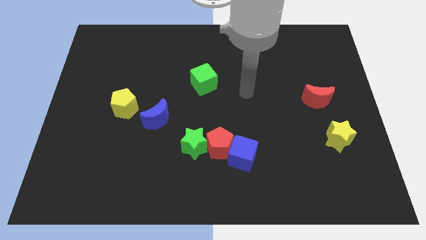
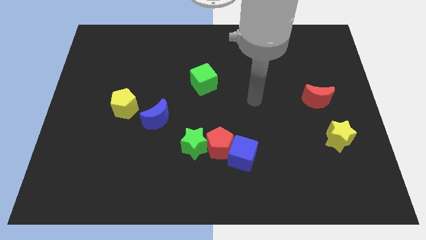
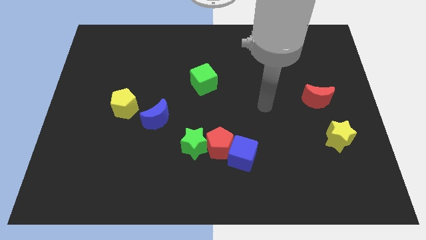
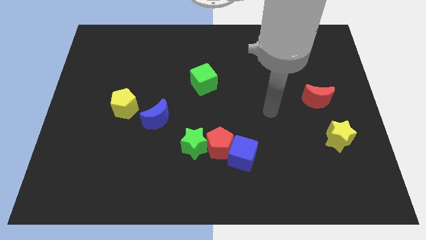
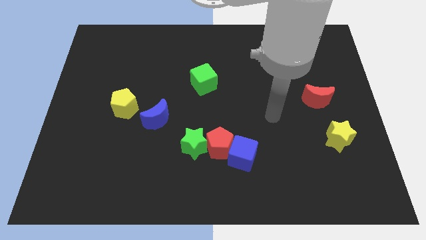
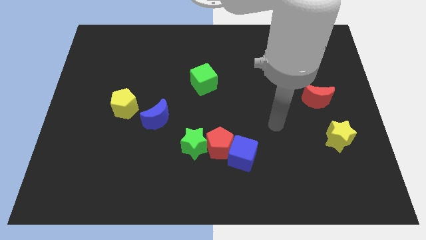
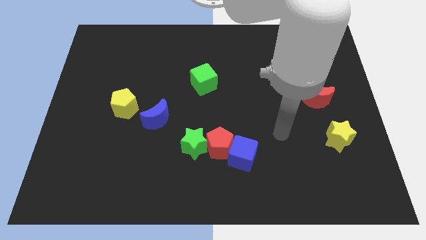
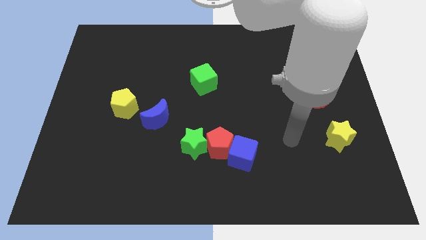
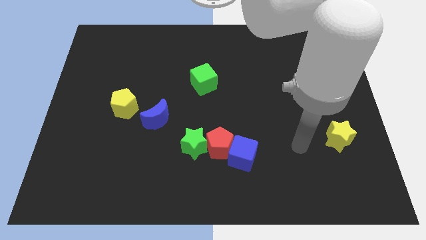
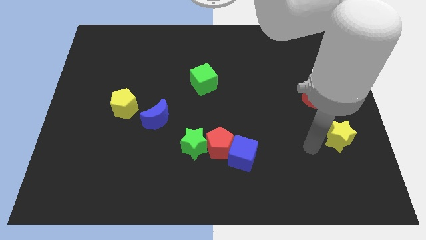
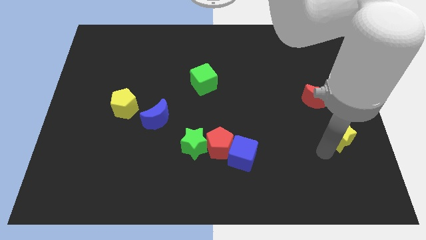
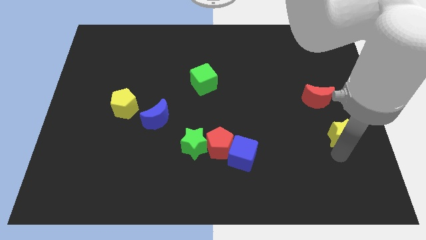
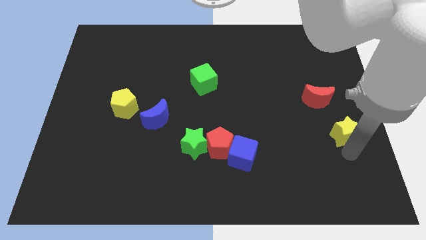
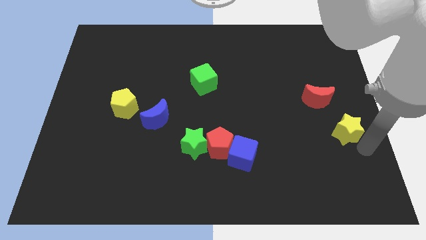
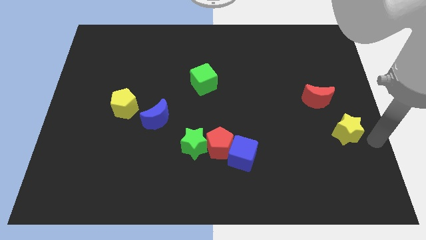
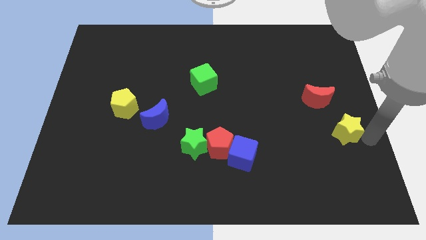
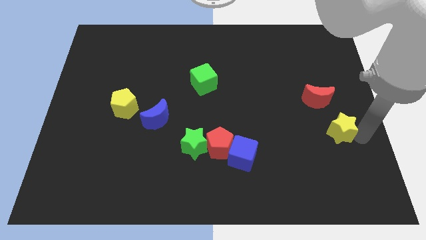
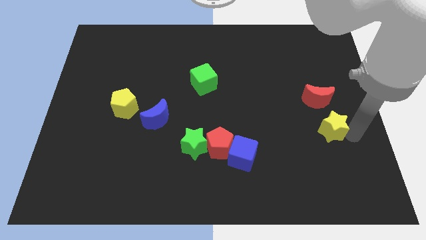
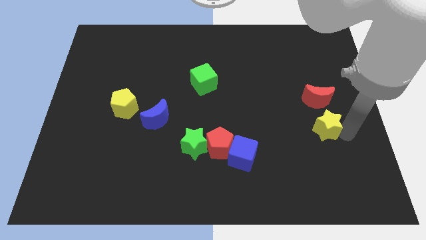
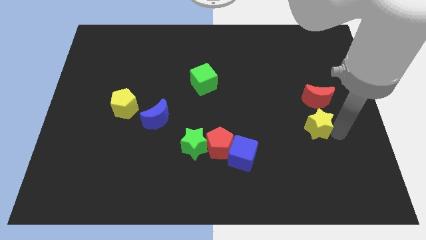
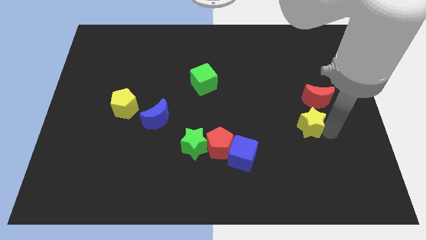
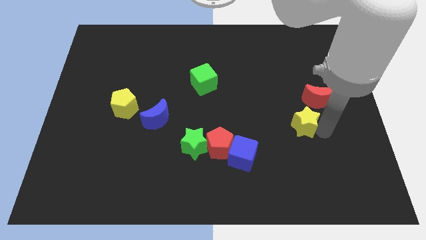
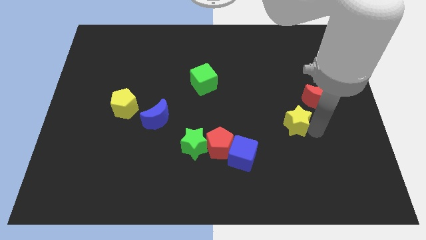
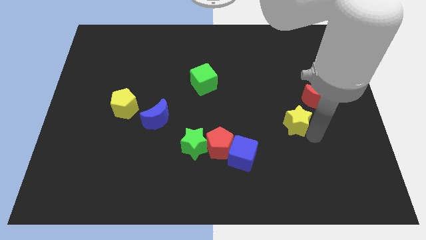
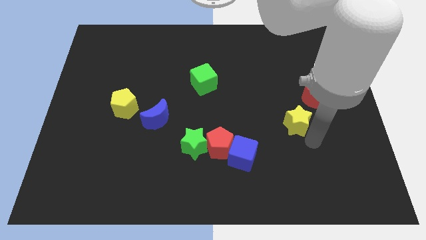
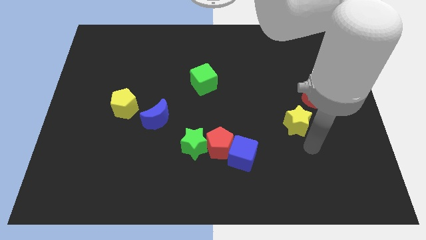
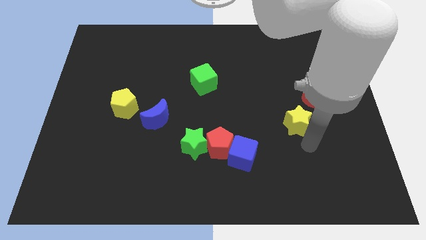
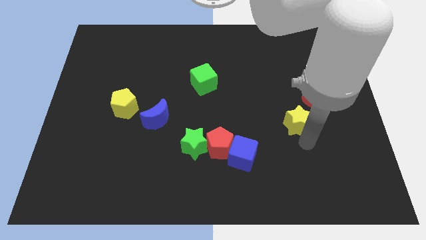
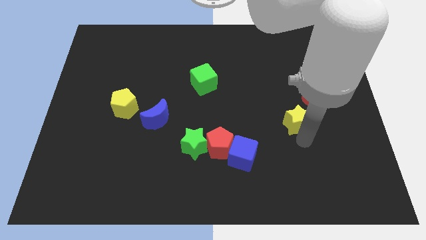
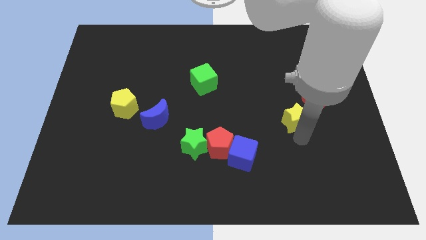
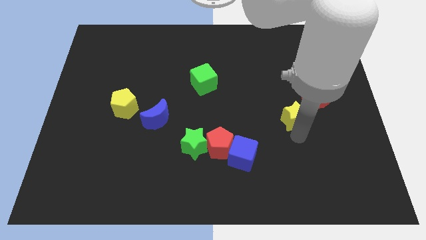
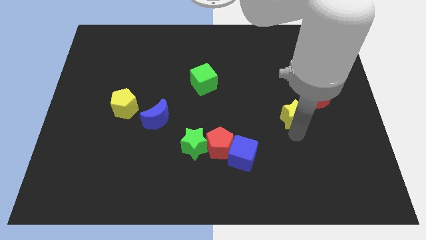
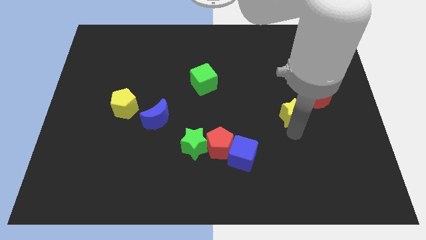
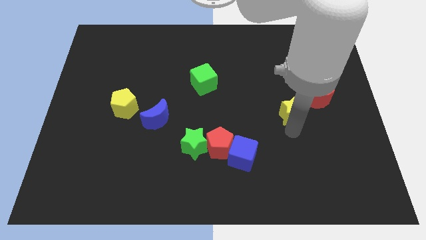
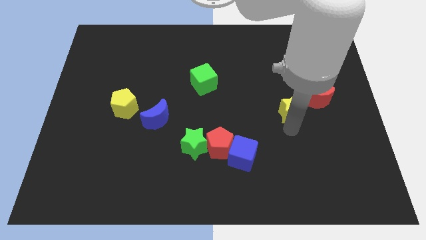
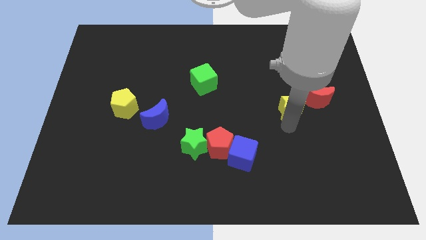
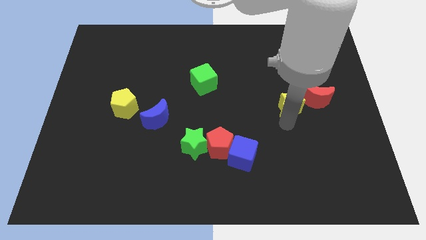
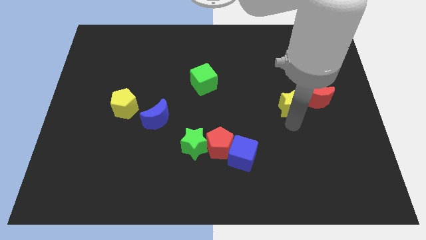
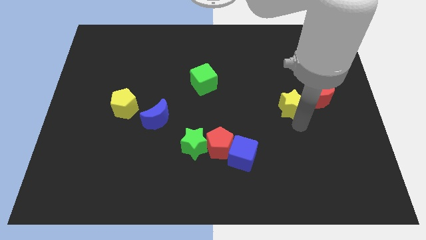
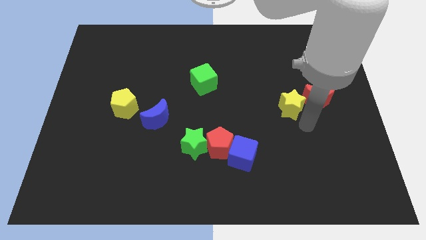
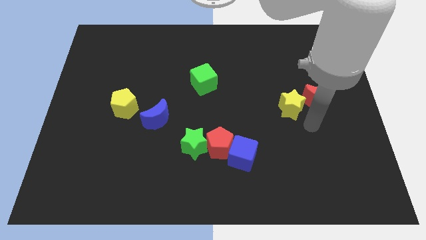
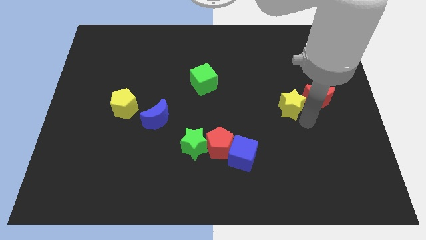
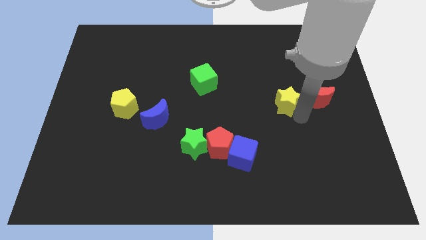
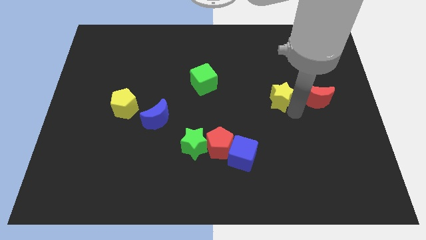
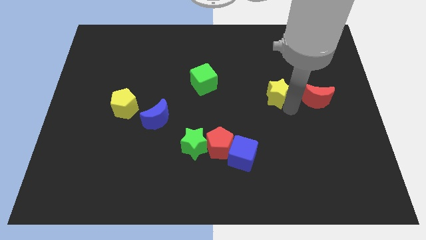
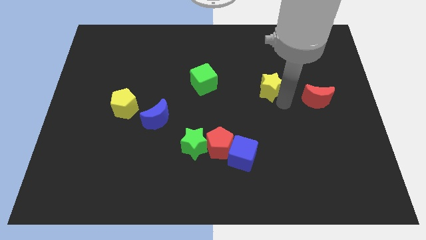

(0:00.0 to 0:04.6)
push the yellow star up and to the left diagonally

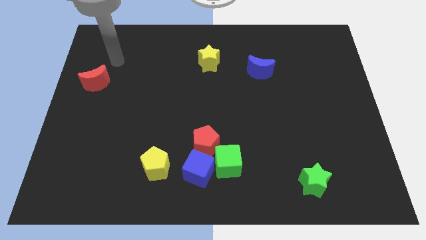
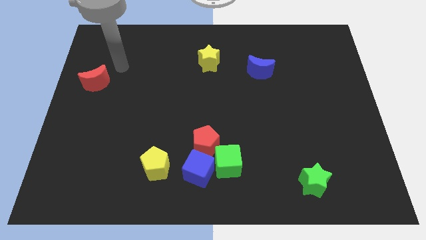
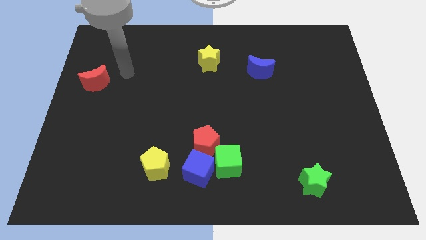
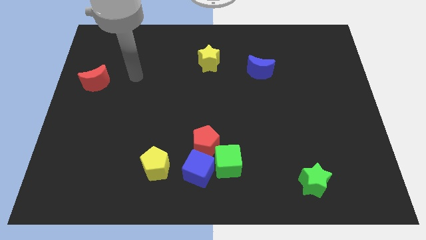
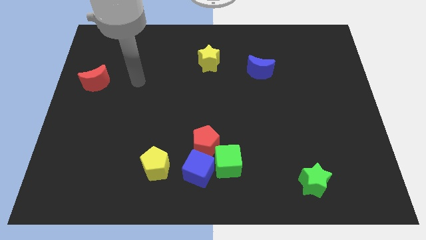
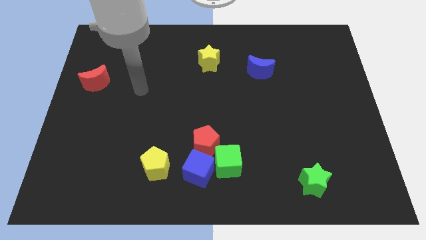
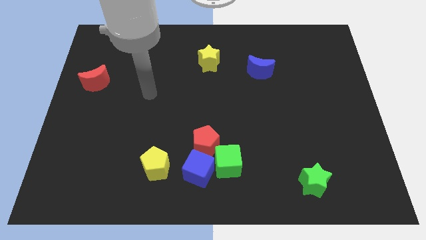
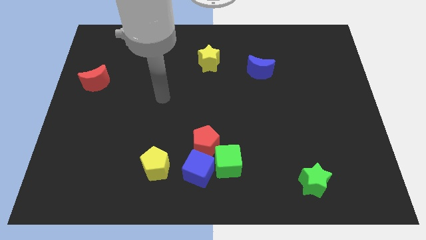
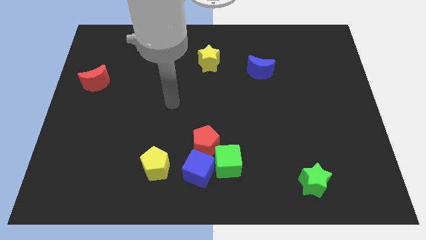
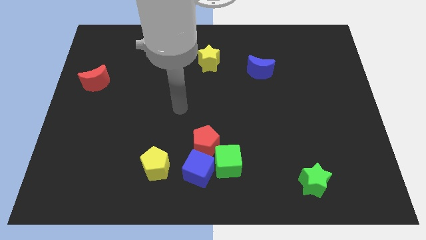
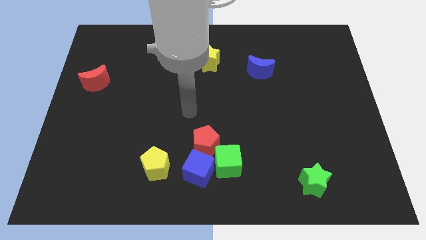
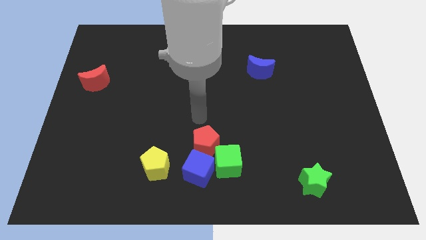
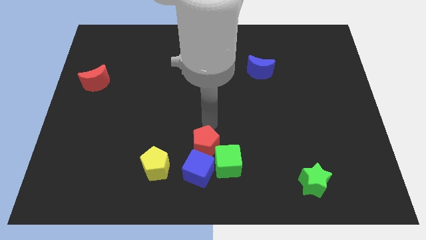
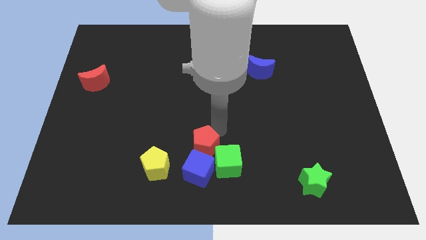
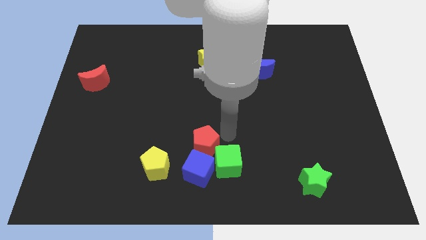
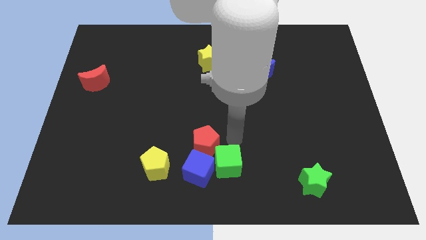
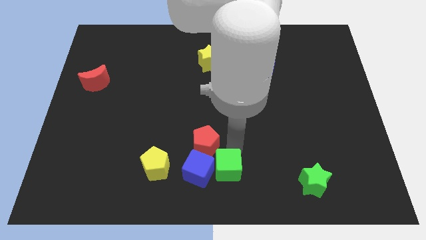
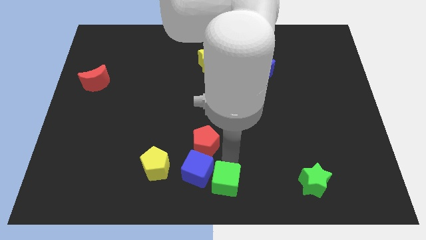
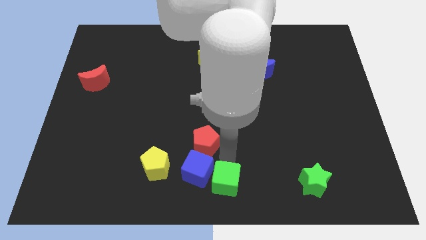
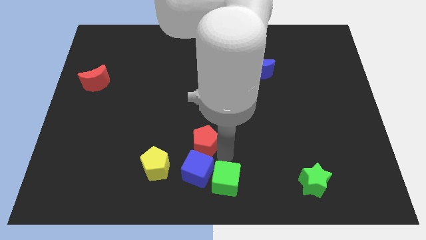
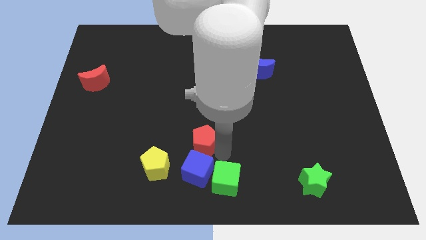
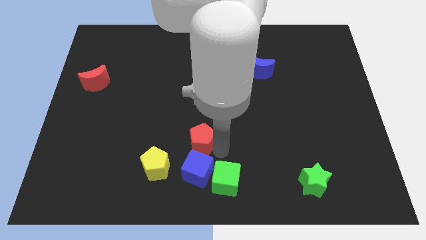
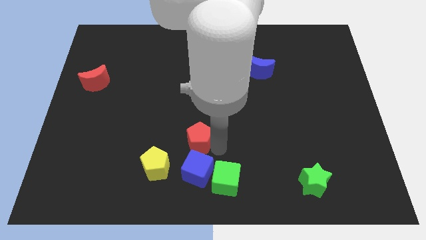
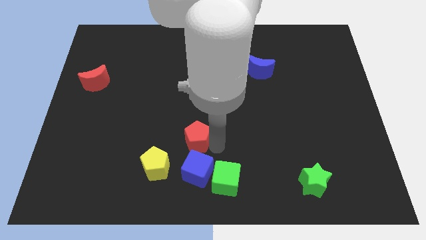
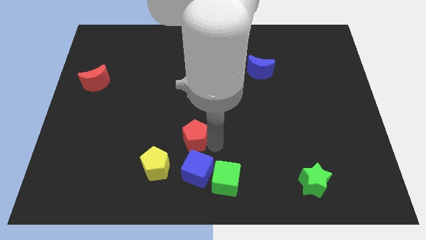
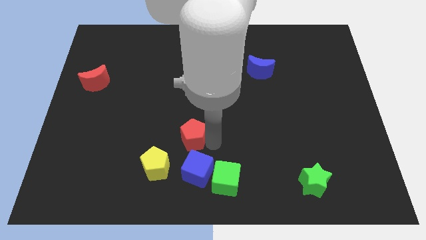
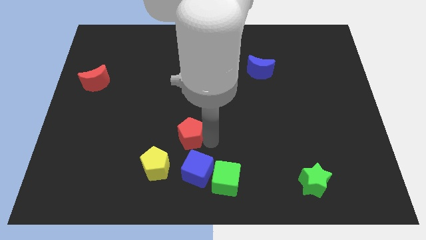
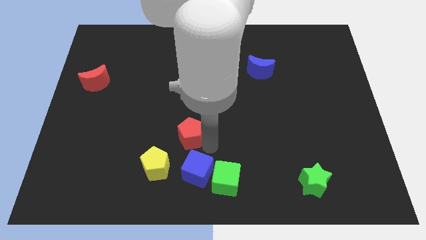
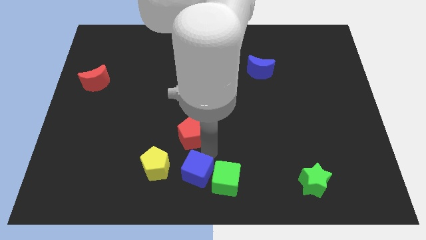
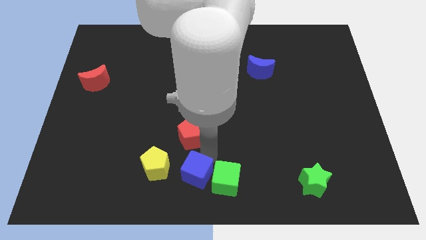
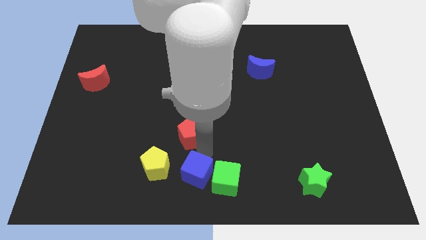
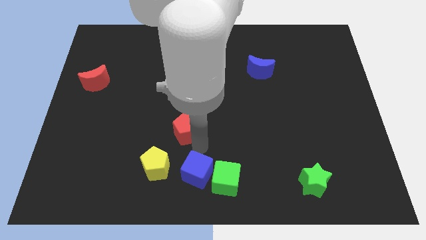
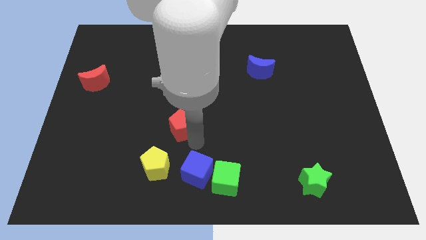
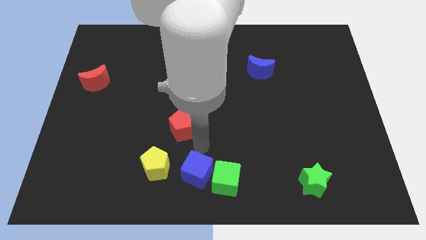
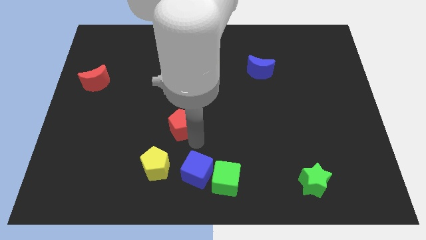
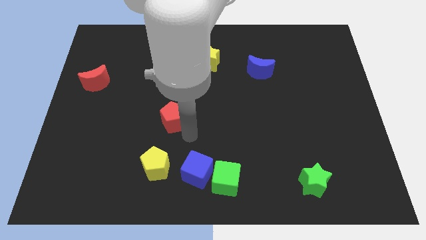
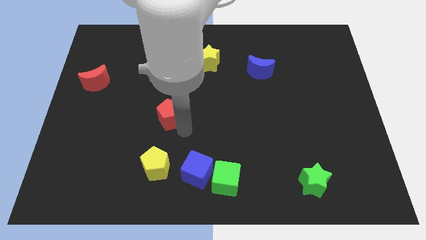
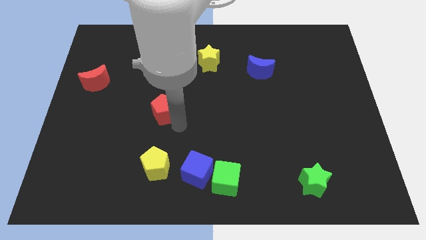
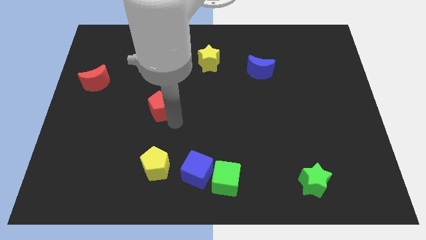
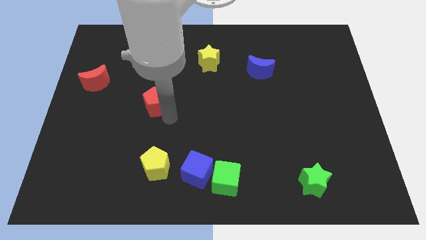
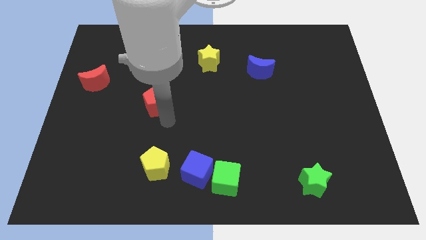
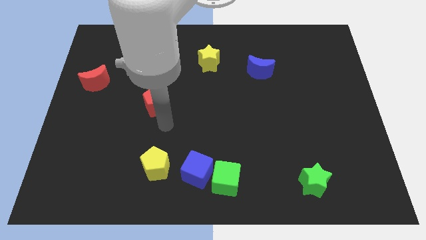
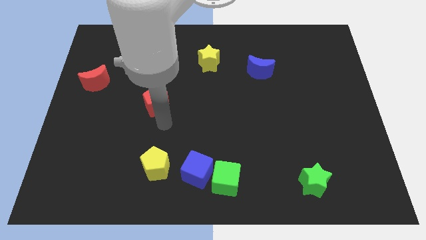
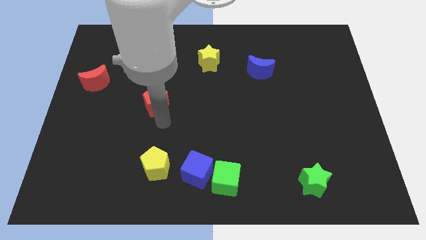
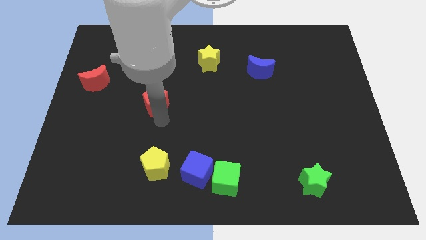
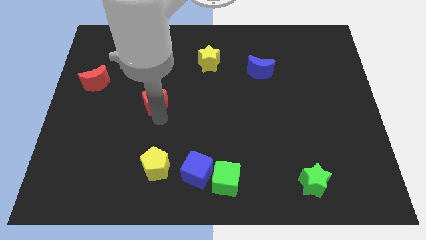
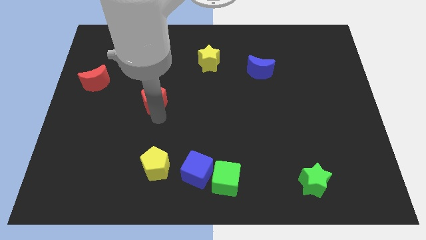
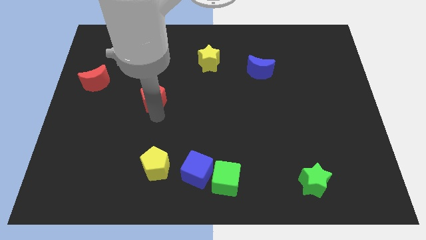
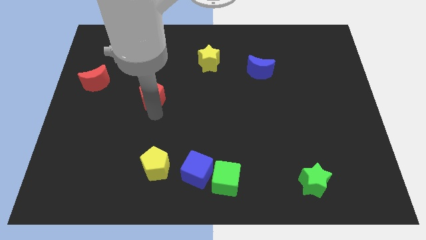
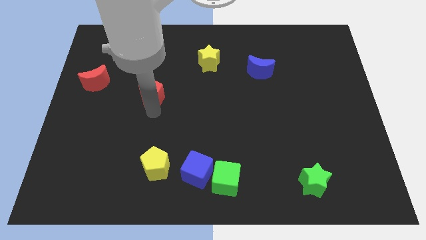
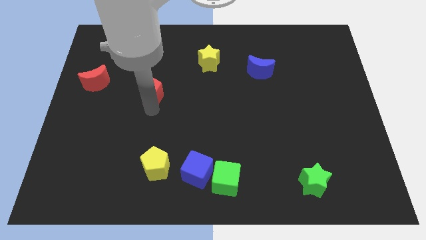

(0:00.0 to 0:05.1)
push the red pentagon diagonally upwards and to the left
